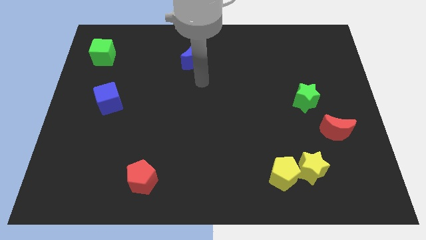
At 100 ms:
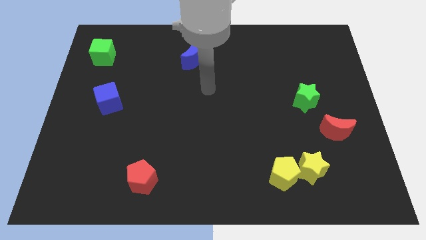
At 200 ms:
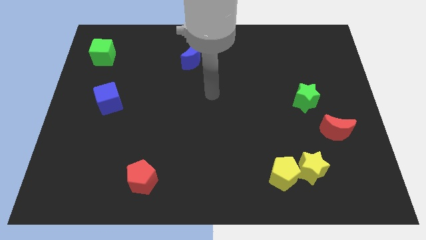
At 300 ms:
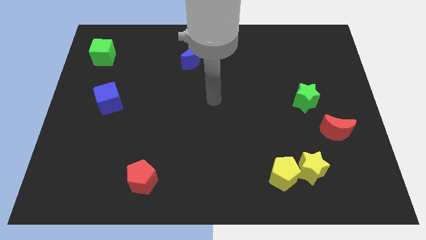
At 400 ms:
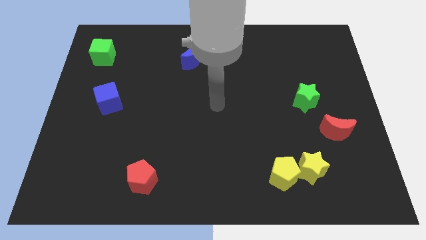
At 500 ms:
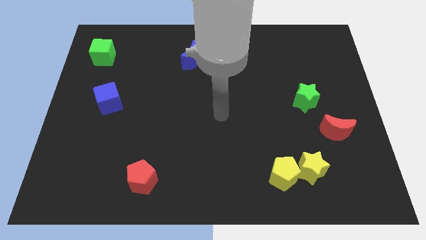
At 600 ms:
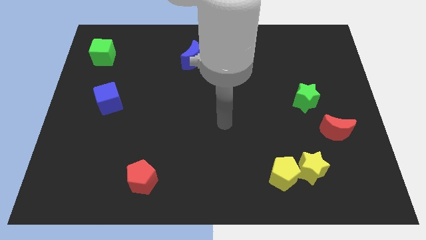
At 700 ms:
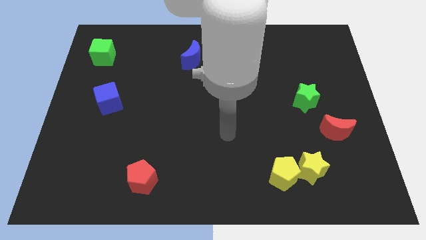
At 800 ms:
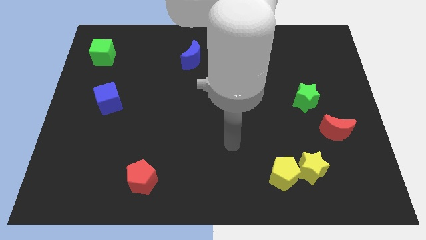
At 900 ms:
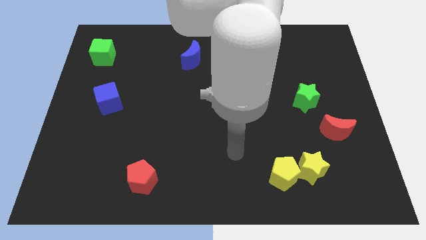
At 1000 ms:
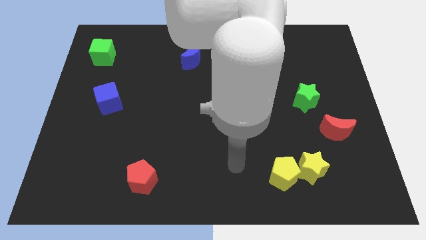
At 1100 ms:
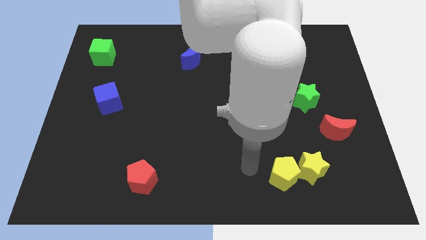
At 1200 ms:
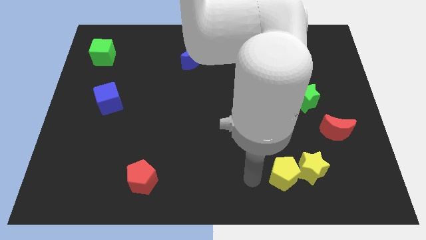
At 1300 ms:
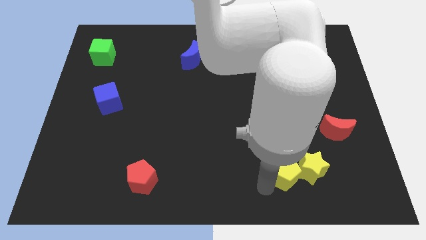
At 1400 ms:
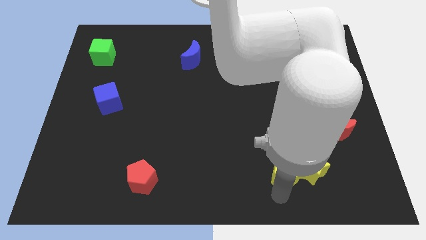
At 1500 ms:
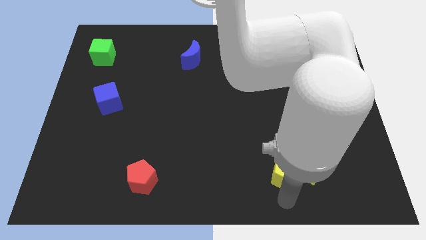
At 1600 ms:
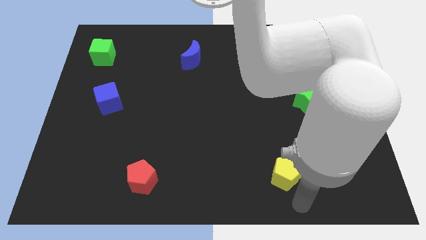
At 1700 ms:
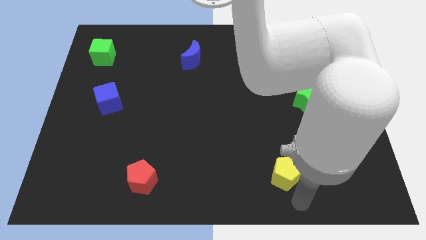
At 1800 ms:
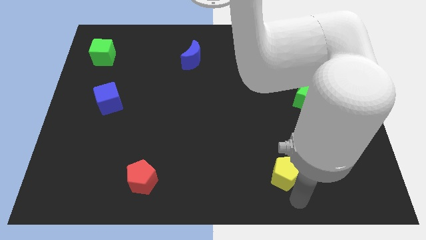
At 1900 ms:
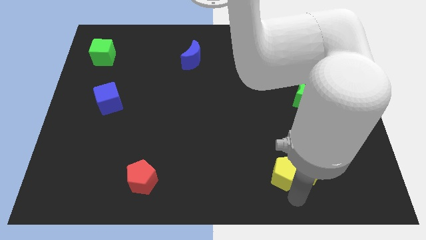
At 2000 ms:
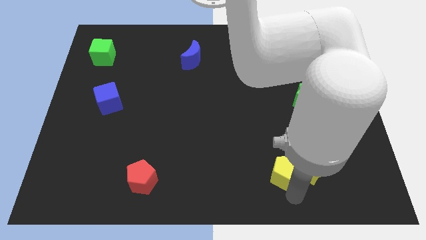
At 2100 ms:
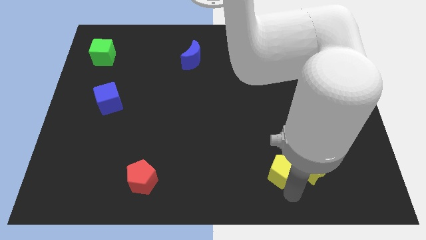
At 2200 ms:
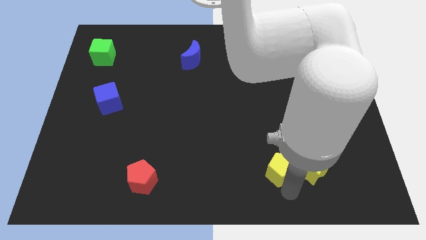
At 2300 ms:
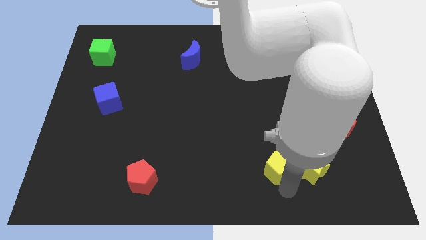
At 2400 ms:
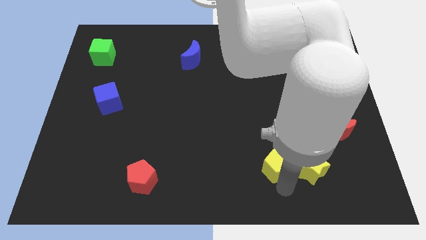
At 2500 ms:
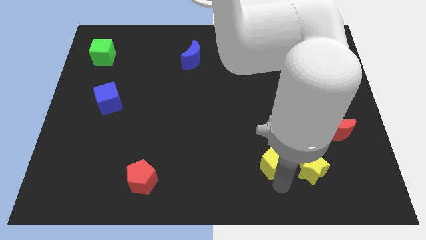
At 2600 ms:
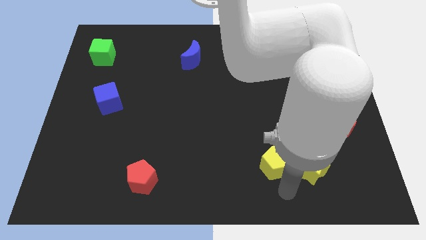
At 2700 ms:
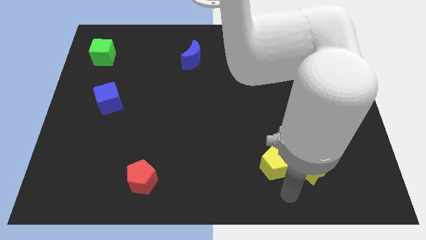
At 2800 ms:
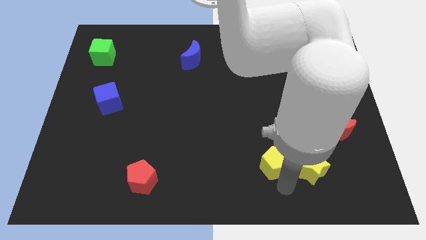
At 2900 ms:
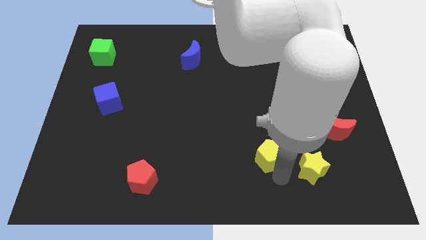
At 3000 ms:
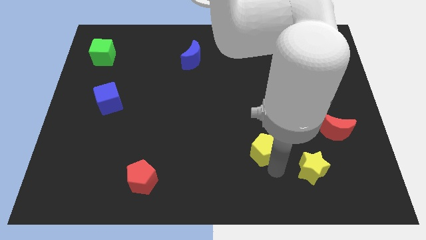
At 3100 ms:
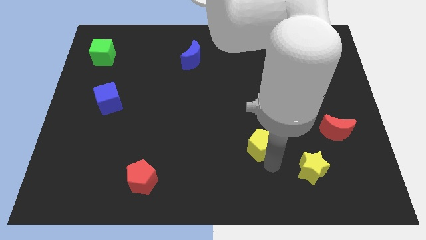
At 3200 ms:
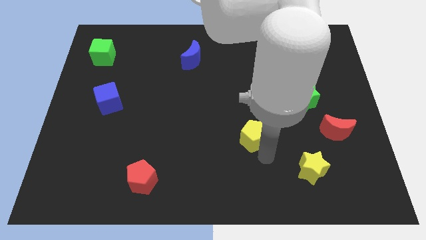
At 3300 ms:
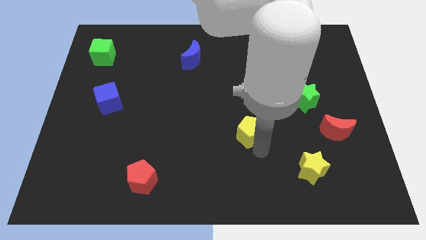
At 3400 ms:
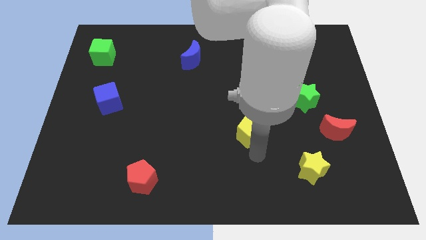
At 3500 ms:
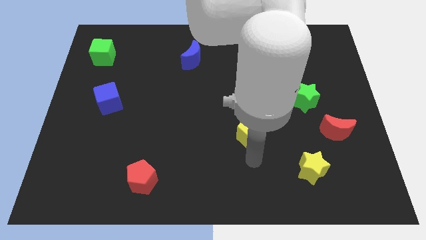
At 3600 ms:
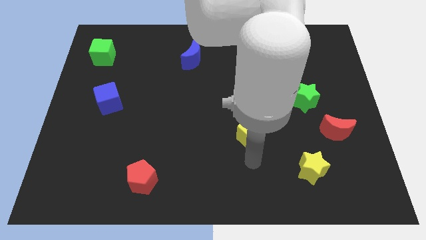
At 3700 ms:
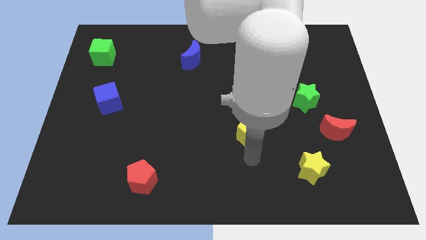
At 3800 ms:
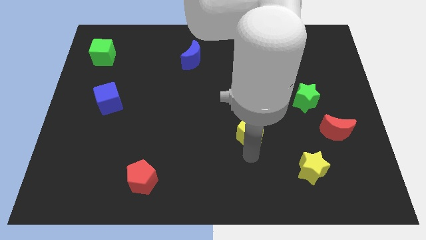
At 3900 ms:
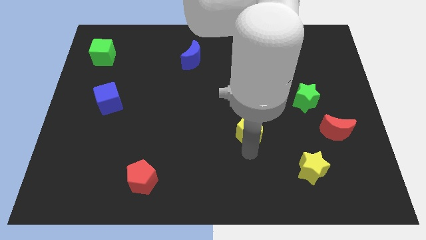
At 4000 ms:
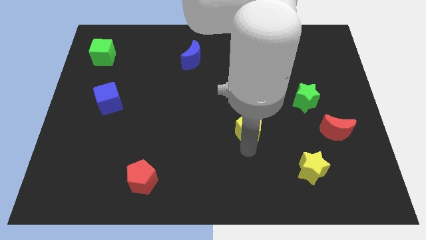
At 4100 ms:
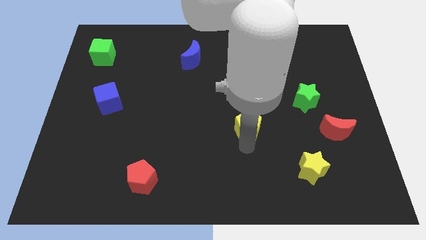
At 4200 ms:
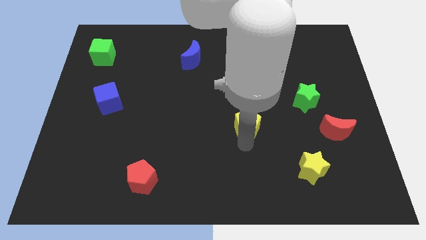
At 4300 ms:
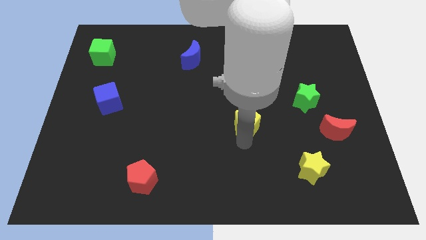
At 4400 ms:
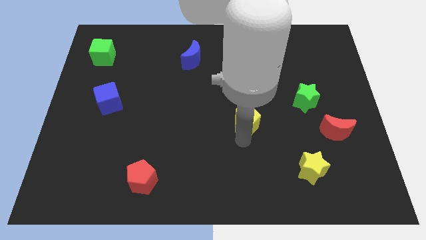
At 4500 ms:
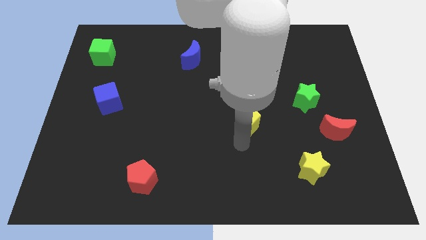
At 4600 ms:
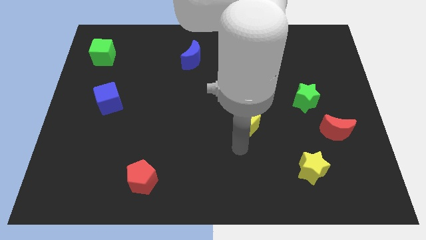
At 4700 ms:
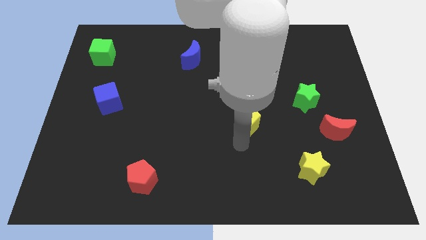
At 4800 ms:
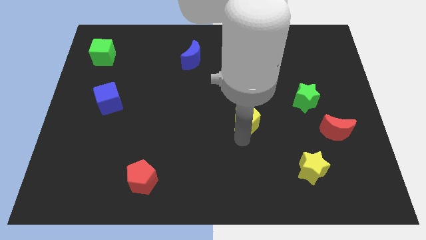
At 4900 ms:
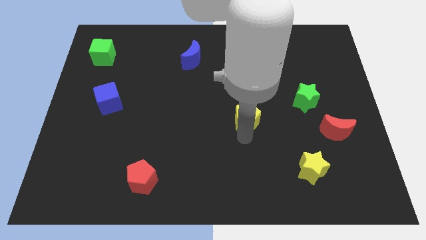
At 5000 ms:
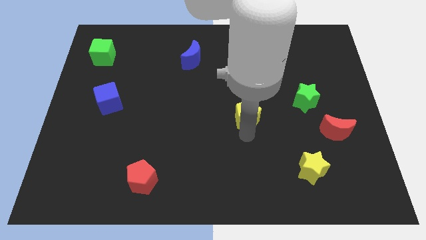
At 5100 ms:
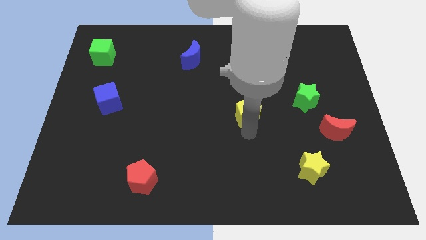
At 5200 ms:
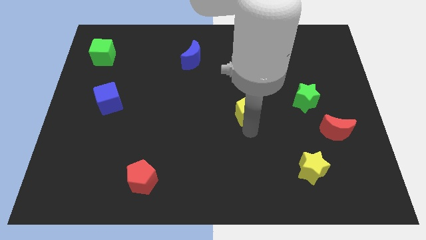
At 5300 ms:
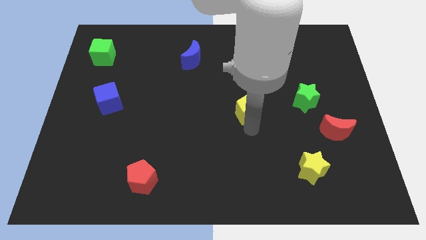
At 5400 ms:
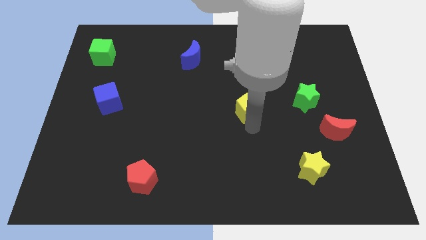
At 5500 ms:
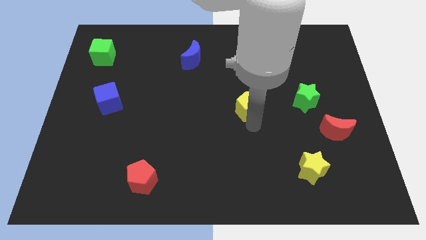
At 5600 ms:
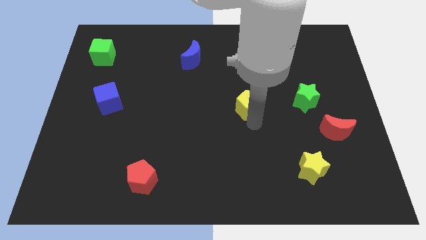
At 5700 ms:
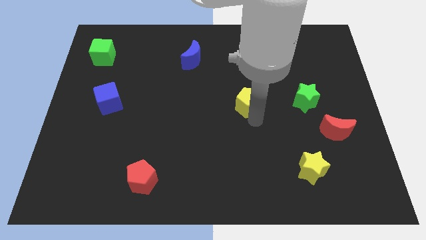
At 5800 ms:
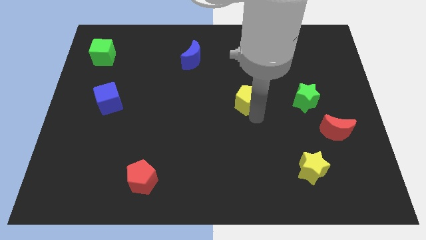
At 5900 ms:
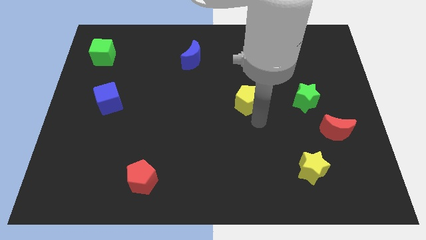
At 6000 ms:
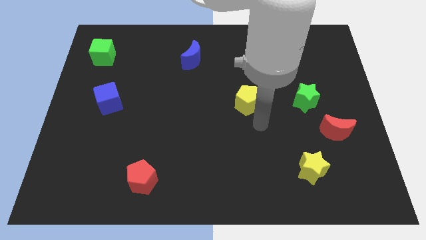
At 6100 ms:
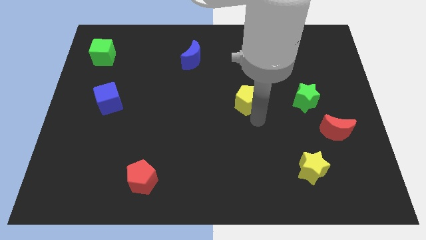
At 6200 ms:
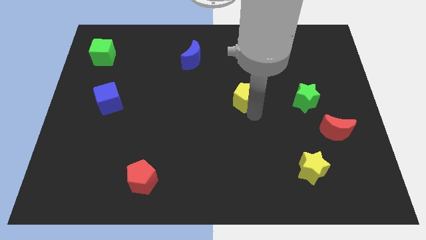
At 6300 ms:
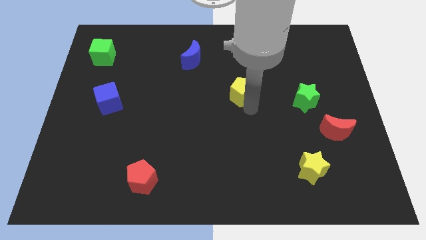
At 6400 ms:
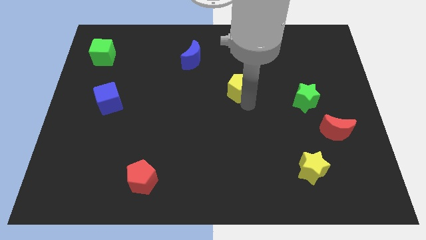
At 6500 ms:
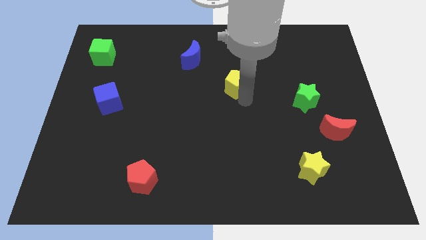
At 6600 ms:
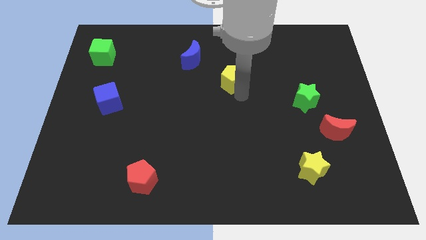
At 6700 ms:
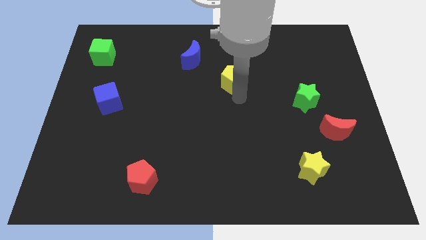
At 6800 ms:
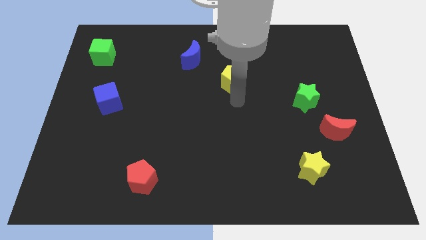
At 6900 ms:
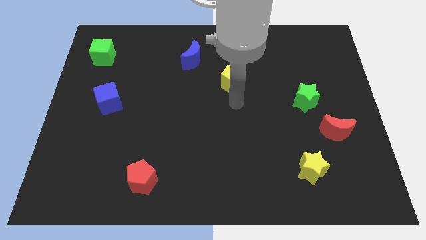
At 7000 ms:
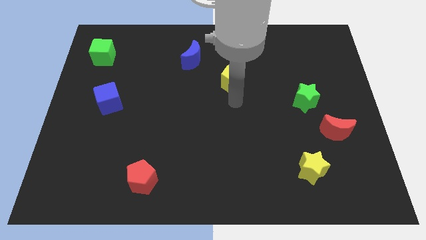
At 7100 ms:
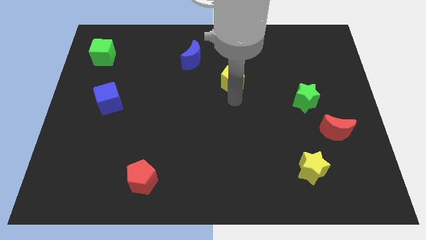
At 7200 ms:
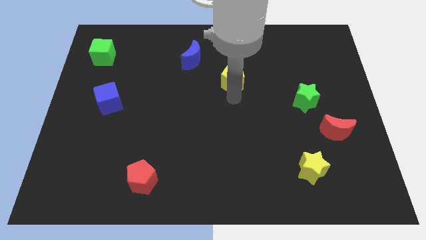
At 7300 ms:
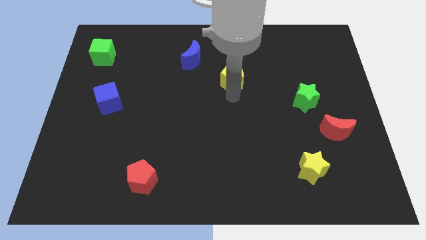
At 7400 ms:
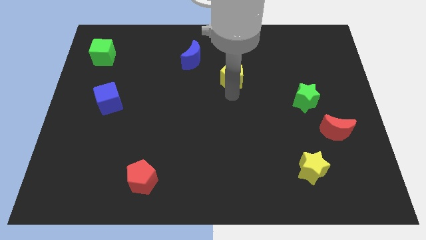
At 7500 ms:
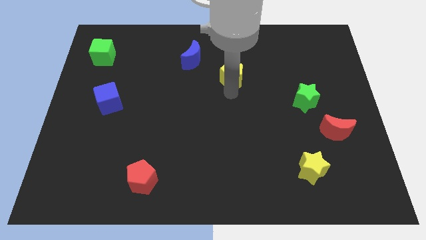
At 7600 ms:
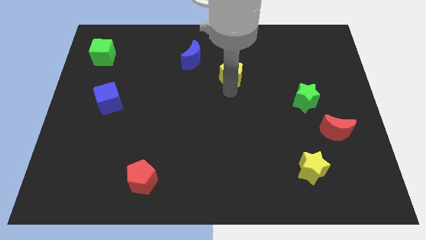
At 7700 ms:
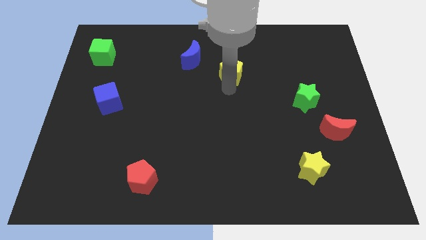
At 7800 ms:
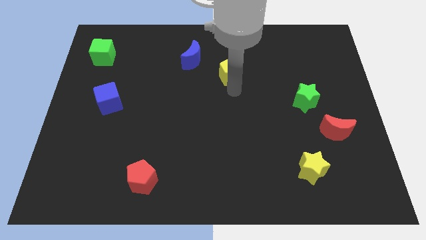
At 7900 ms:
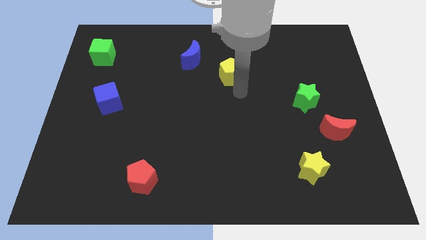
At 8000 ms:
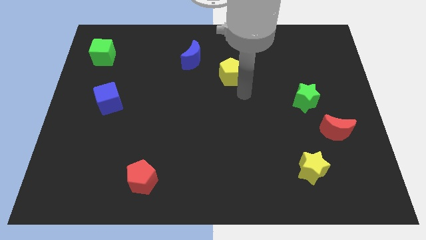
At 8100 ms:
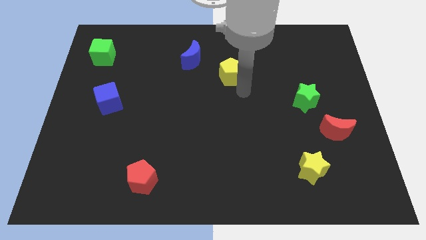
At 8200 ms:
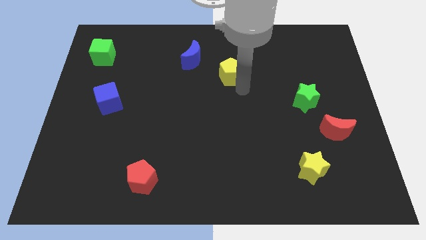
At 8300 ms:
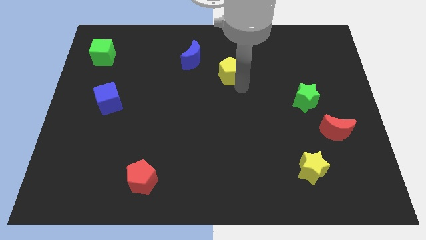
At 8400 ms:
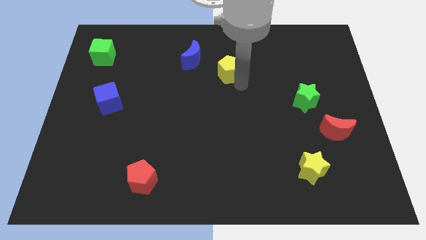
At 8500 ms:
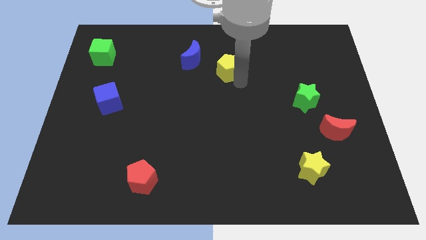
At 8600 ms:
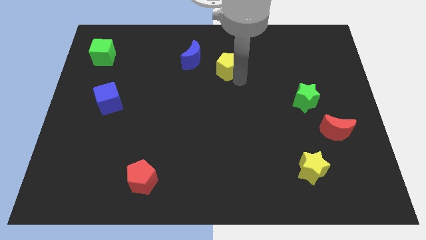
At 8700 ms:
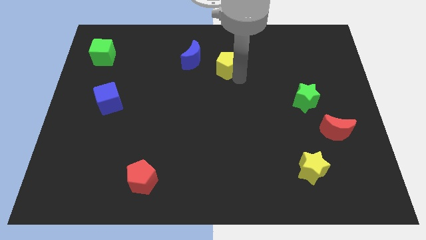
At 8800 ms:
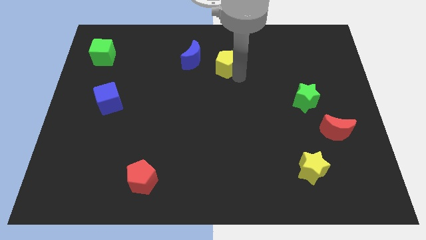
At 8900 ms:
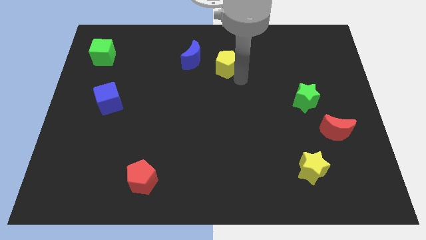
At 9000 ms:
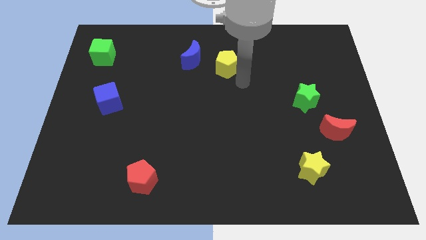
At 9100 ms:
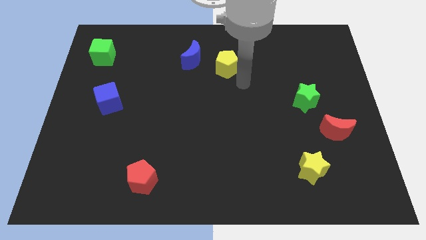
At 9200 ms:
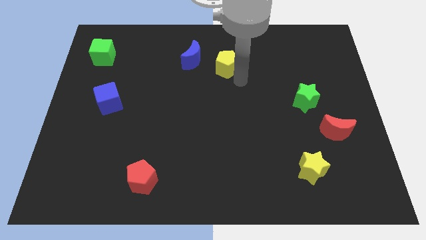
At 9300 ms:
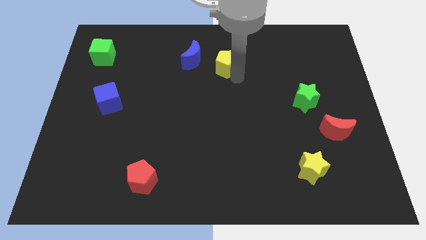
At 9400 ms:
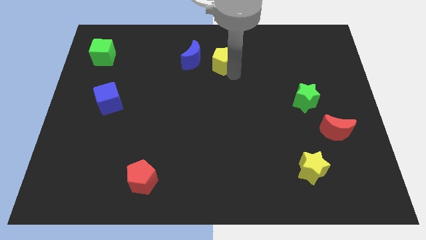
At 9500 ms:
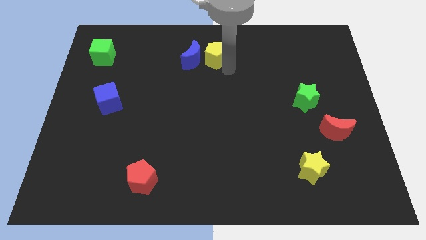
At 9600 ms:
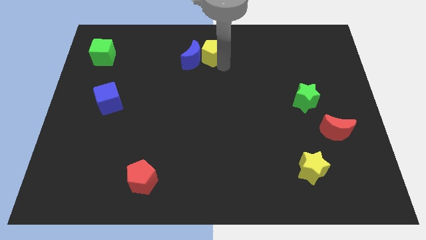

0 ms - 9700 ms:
push the yellow pentagon to the top
